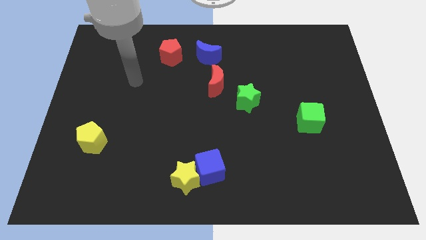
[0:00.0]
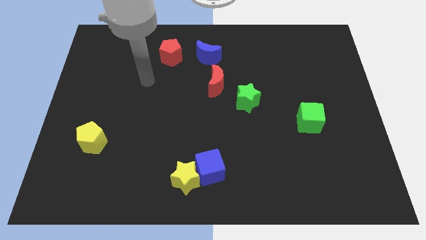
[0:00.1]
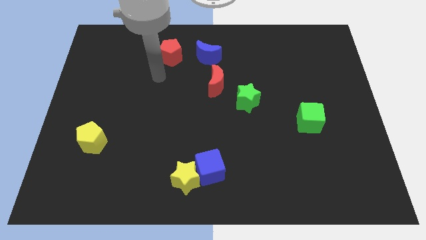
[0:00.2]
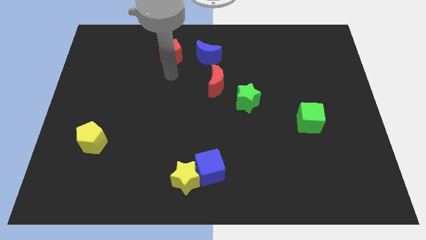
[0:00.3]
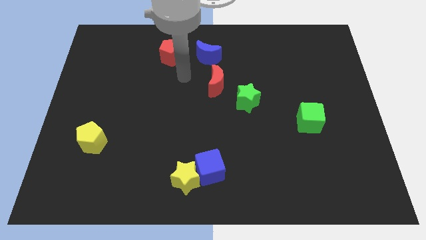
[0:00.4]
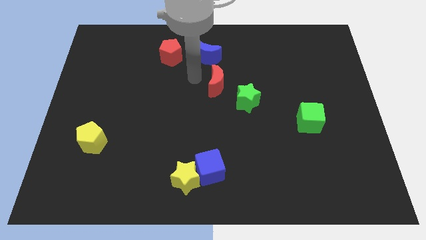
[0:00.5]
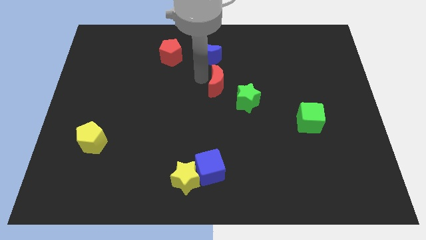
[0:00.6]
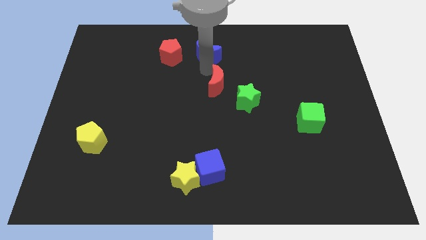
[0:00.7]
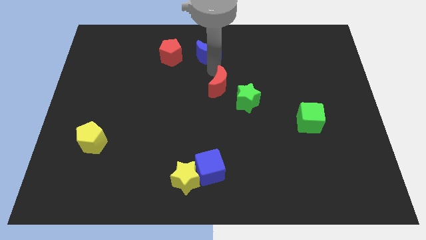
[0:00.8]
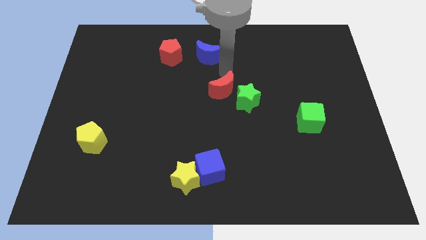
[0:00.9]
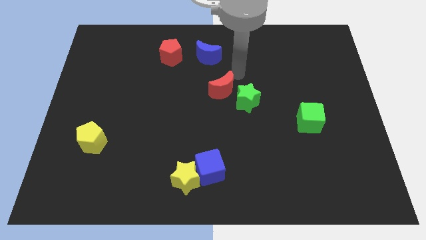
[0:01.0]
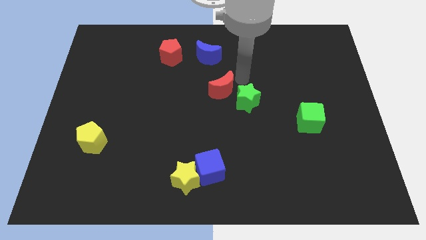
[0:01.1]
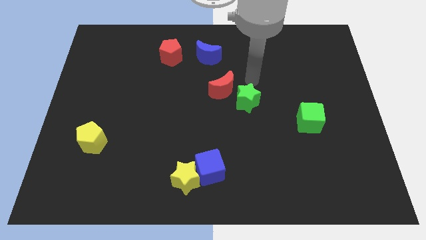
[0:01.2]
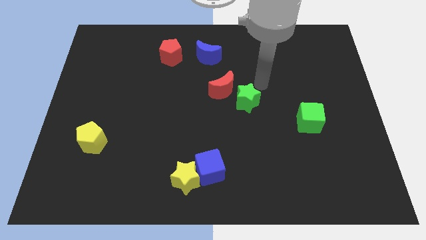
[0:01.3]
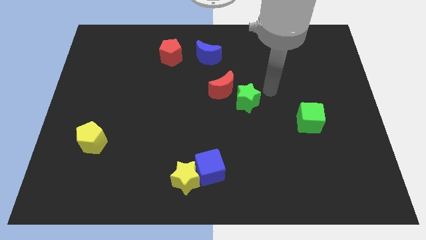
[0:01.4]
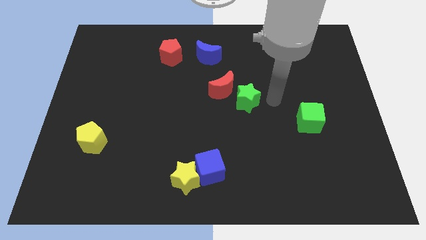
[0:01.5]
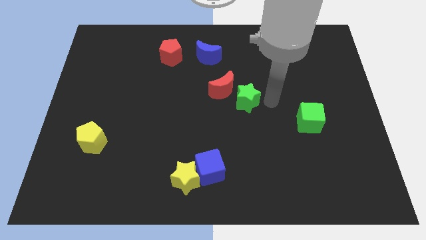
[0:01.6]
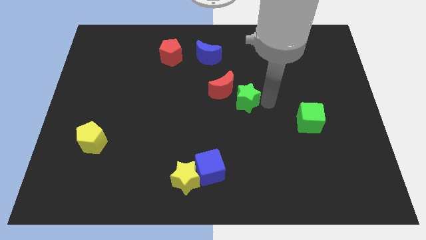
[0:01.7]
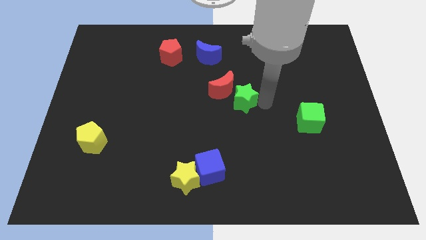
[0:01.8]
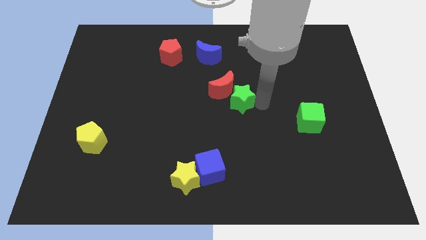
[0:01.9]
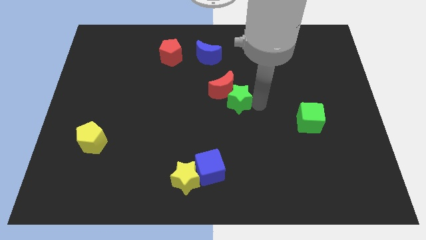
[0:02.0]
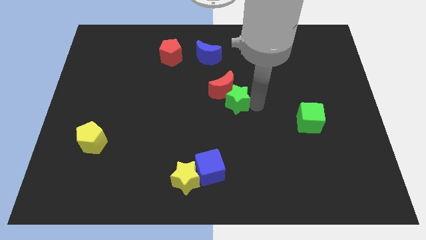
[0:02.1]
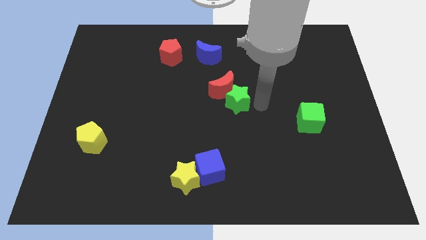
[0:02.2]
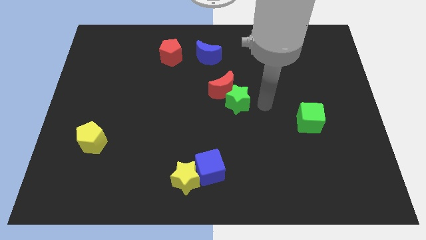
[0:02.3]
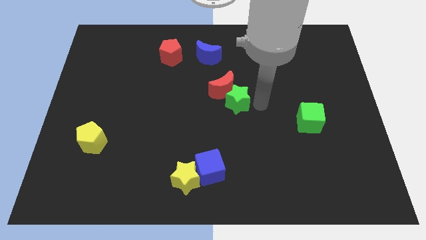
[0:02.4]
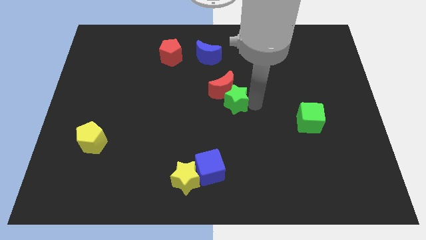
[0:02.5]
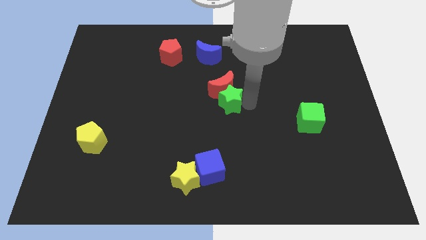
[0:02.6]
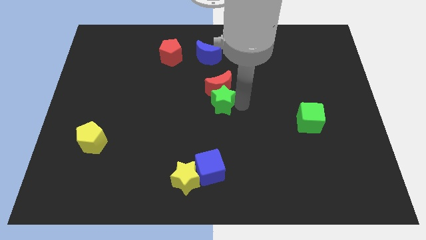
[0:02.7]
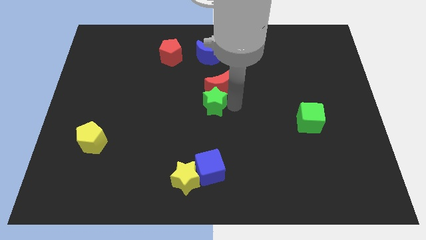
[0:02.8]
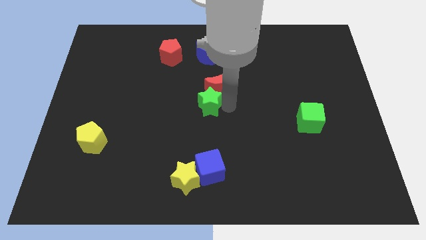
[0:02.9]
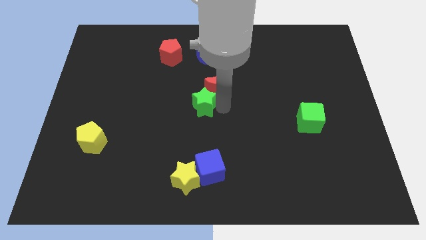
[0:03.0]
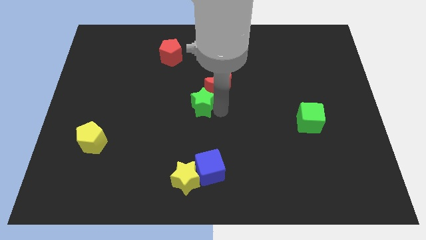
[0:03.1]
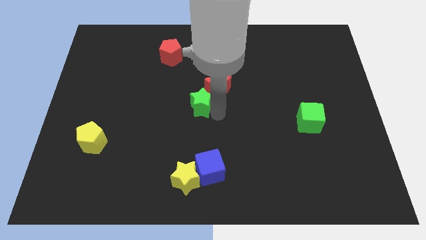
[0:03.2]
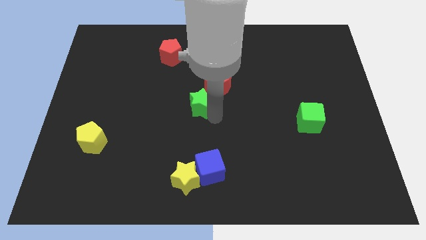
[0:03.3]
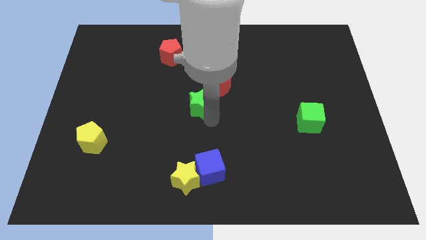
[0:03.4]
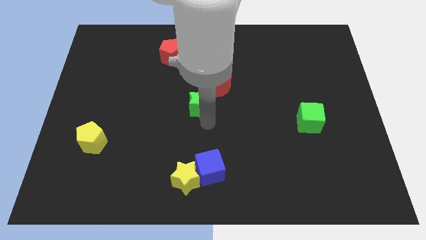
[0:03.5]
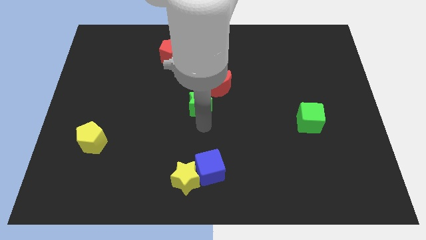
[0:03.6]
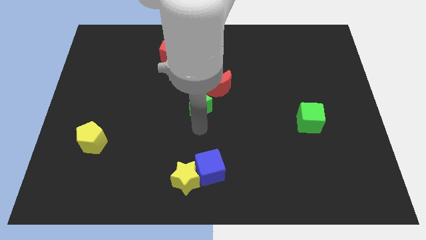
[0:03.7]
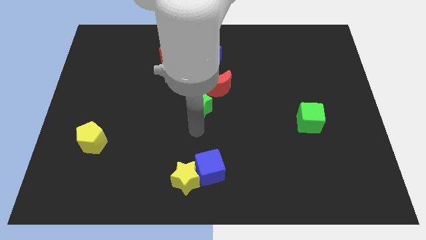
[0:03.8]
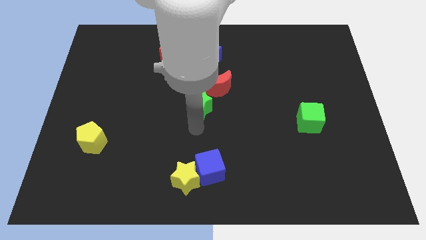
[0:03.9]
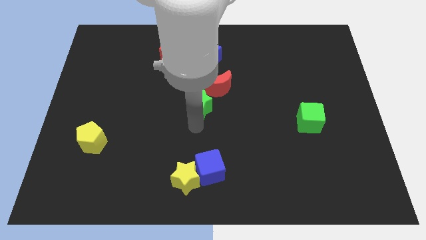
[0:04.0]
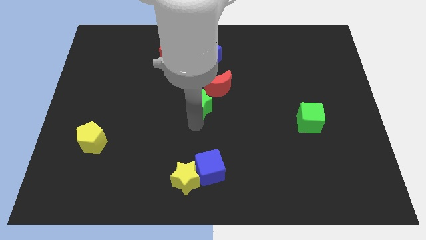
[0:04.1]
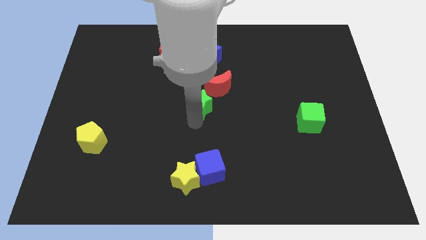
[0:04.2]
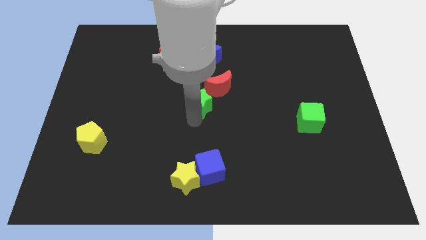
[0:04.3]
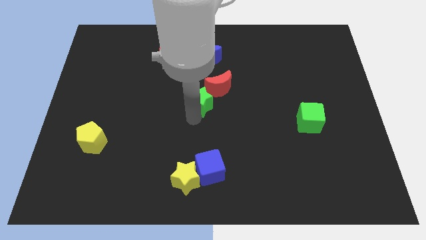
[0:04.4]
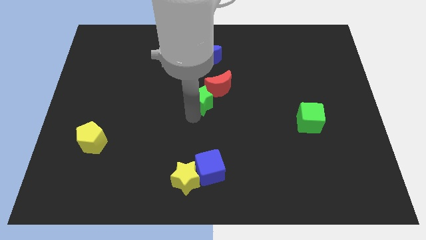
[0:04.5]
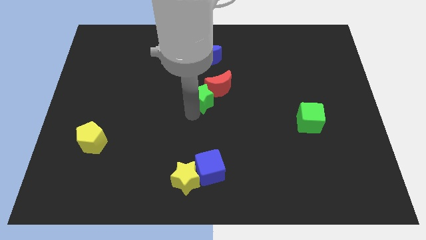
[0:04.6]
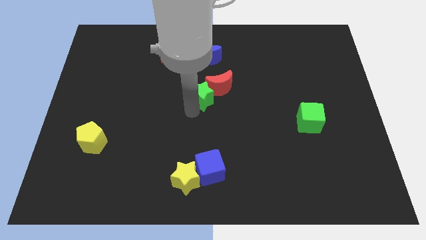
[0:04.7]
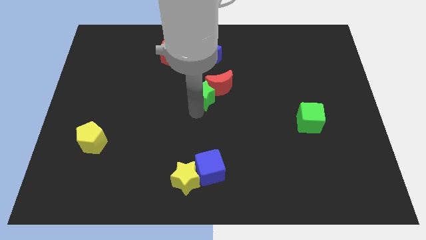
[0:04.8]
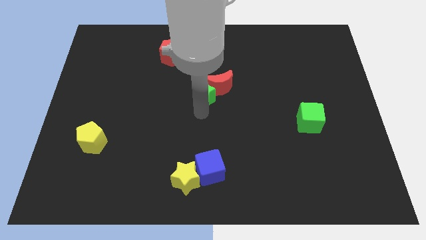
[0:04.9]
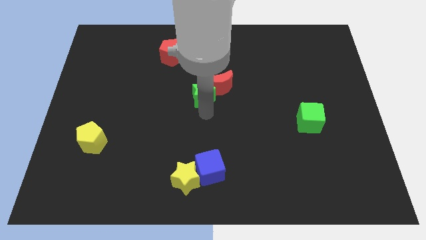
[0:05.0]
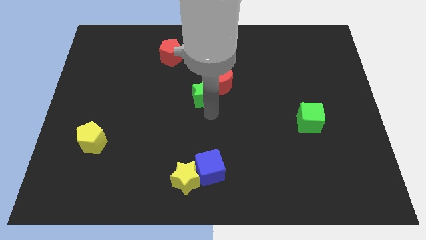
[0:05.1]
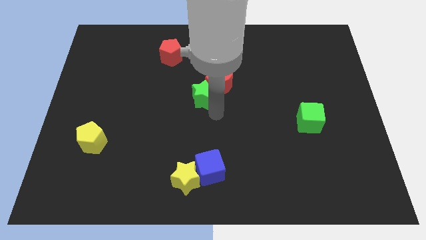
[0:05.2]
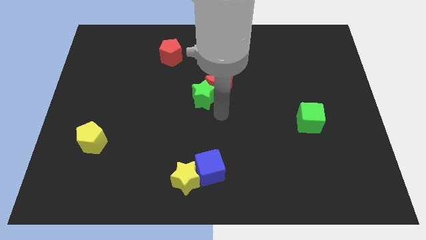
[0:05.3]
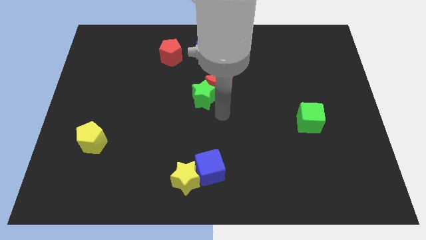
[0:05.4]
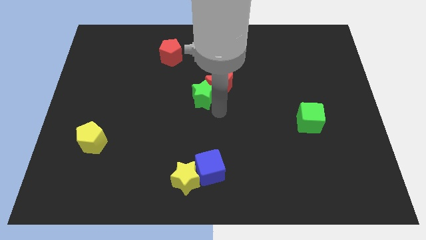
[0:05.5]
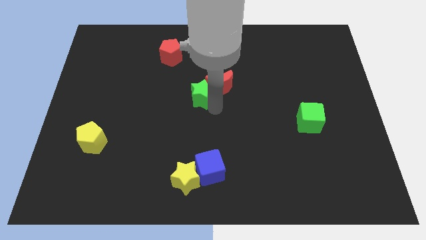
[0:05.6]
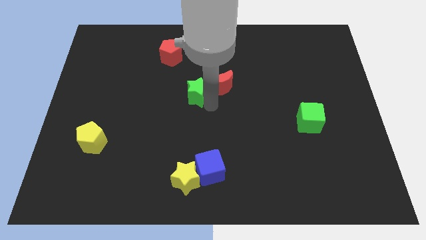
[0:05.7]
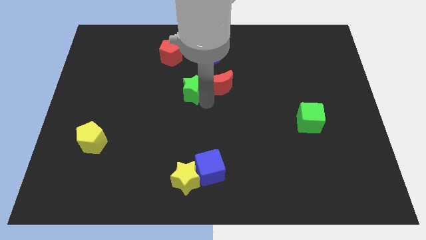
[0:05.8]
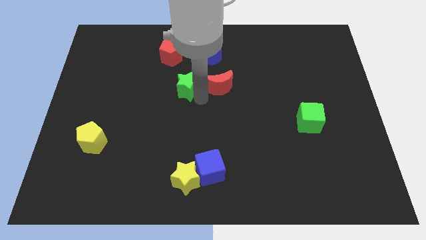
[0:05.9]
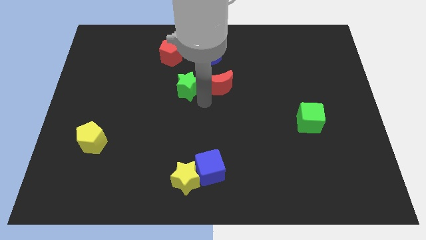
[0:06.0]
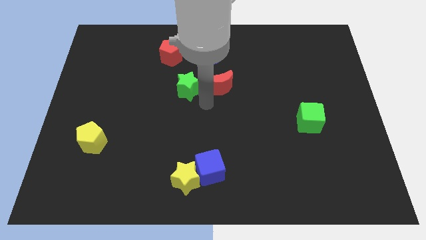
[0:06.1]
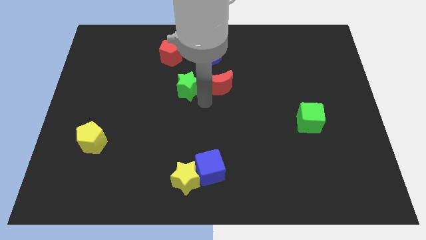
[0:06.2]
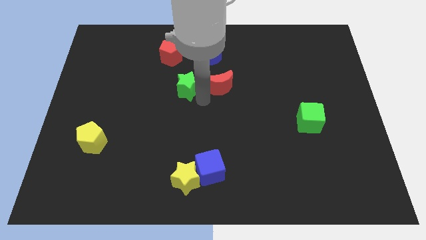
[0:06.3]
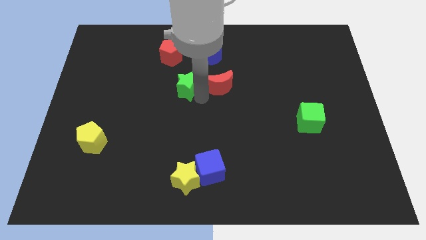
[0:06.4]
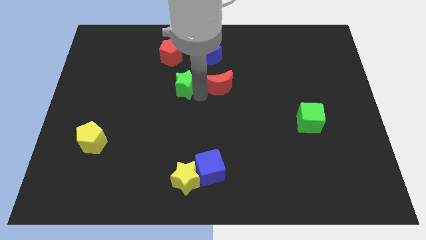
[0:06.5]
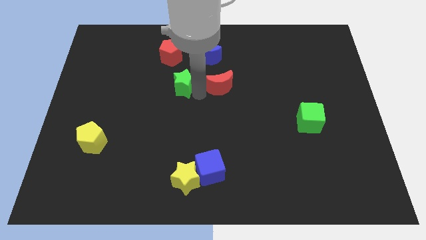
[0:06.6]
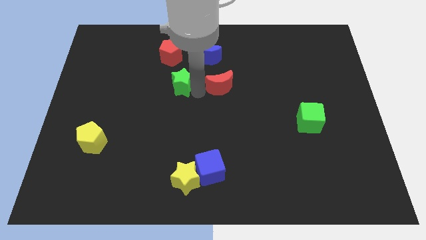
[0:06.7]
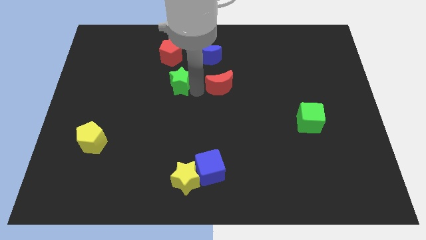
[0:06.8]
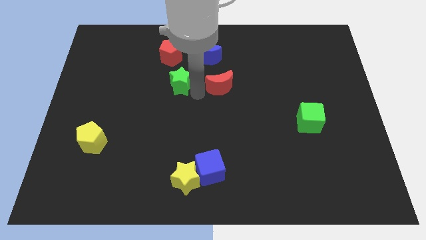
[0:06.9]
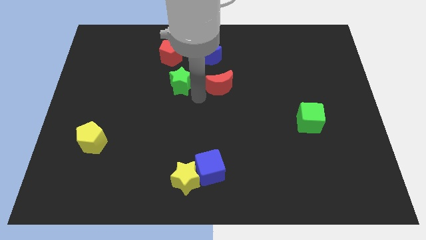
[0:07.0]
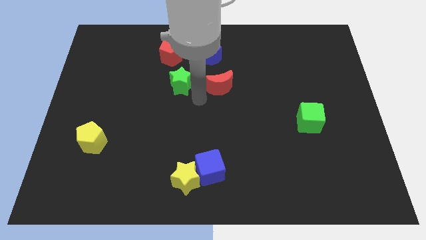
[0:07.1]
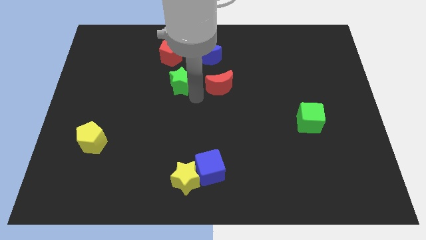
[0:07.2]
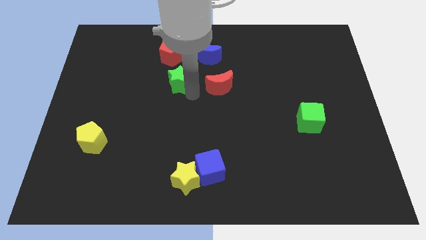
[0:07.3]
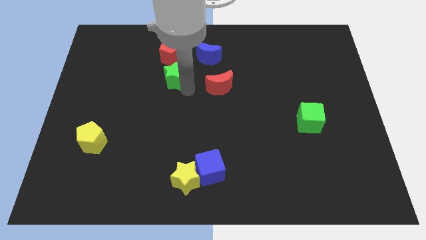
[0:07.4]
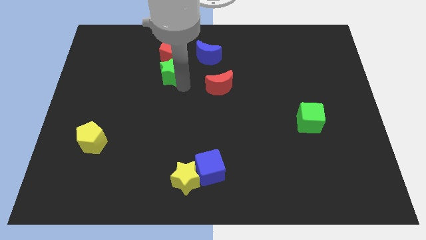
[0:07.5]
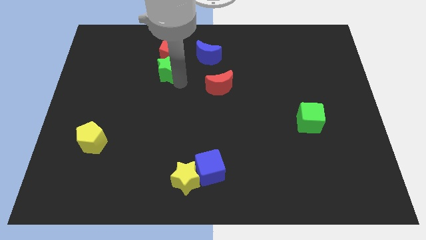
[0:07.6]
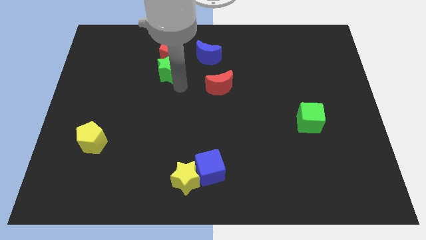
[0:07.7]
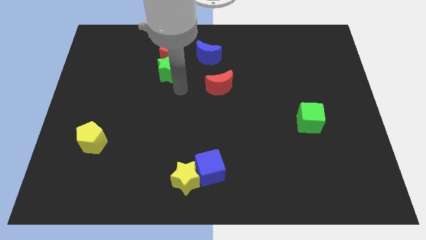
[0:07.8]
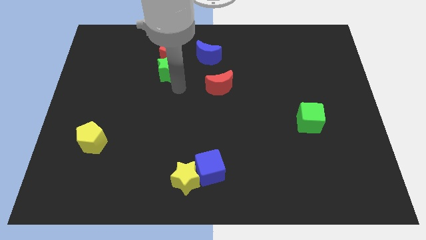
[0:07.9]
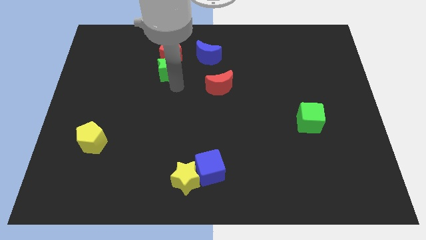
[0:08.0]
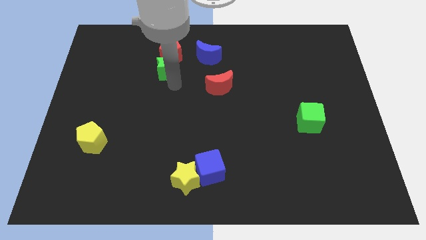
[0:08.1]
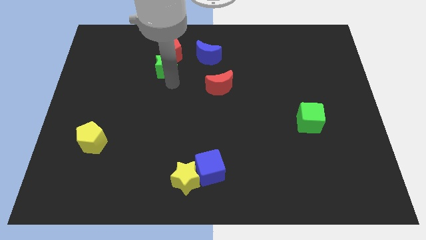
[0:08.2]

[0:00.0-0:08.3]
move the green star to the left side of the blue moon
